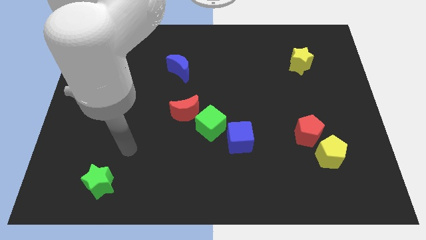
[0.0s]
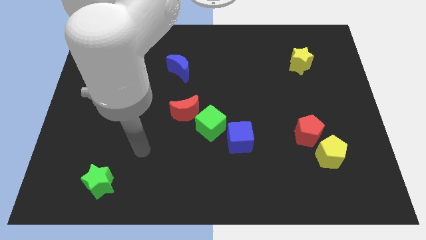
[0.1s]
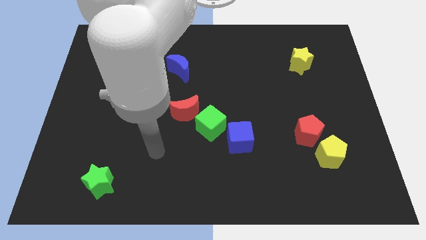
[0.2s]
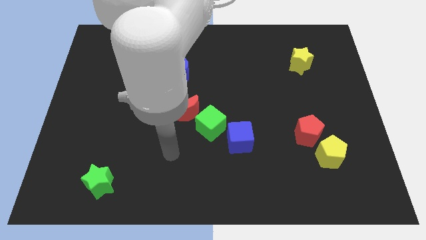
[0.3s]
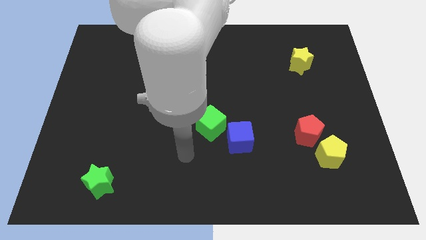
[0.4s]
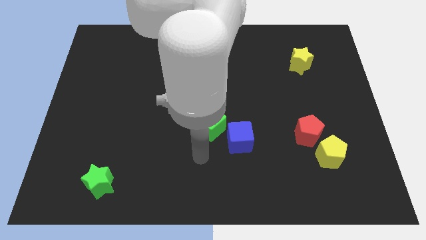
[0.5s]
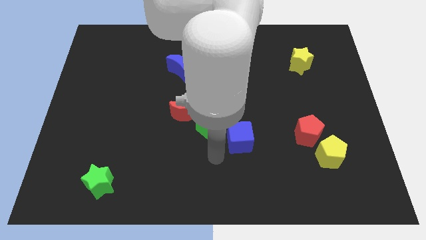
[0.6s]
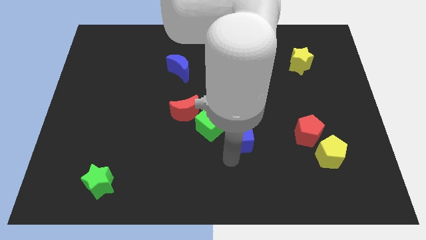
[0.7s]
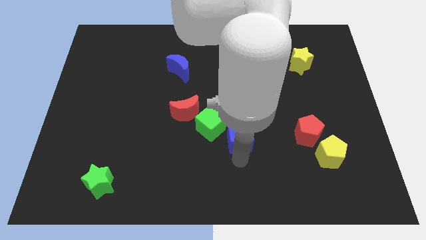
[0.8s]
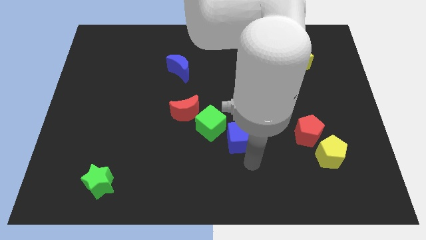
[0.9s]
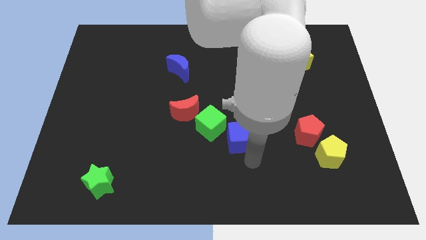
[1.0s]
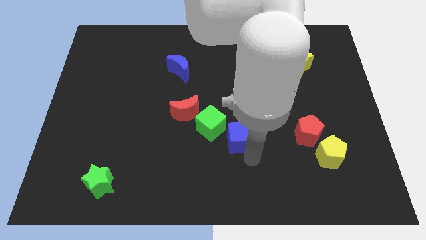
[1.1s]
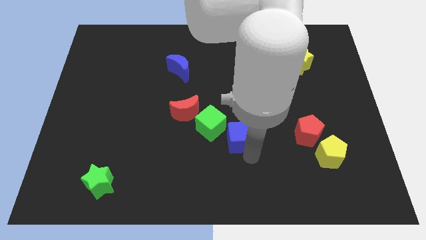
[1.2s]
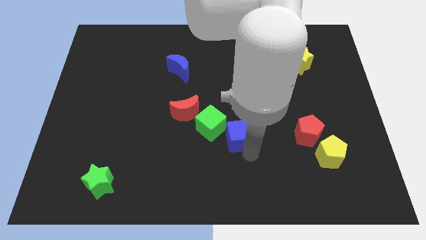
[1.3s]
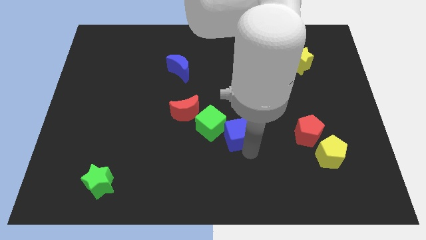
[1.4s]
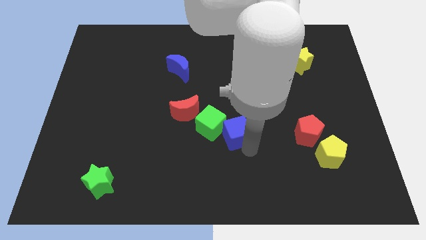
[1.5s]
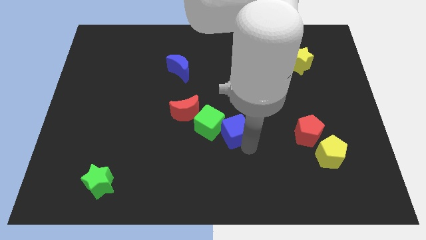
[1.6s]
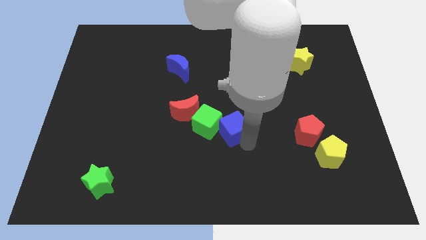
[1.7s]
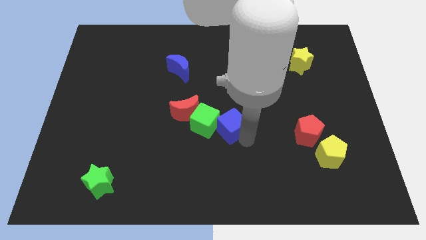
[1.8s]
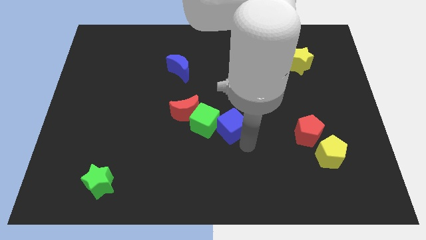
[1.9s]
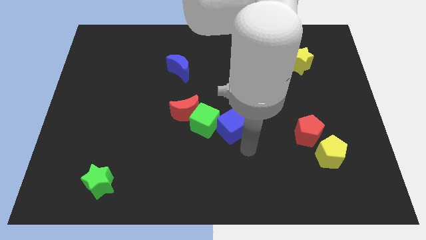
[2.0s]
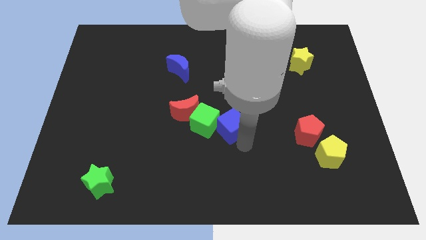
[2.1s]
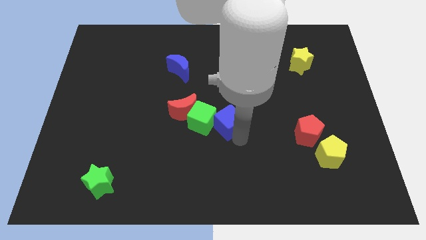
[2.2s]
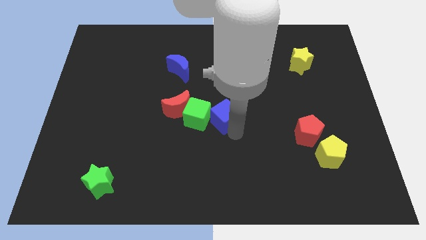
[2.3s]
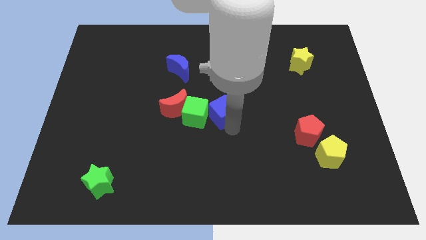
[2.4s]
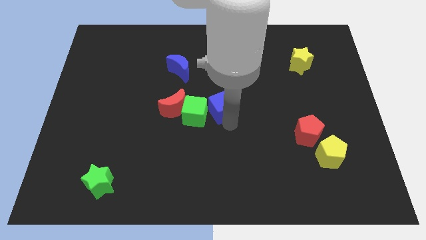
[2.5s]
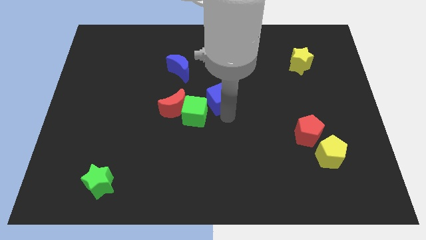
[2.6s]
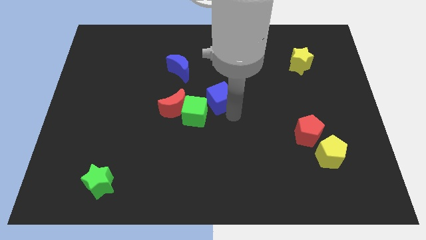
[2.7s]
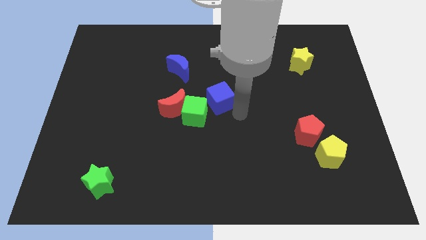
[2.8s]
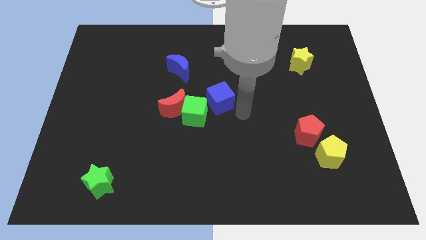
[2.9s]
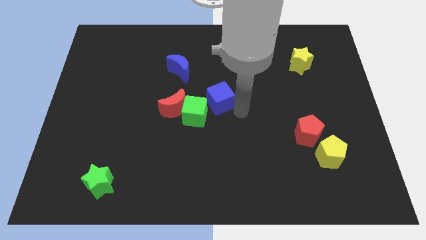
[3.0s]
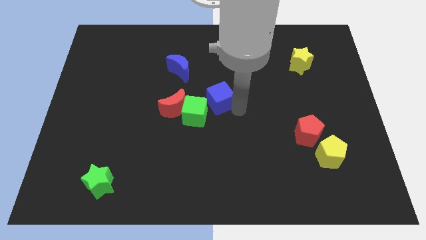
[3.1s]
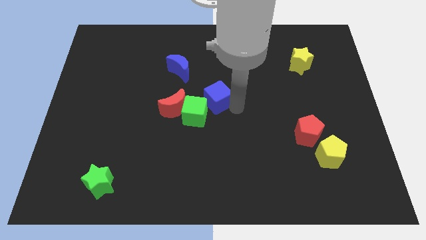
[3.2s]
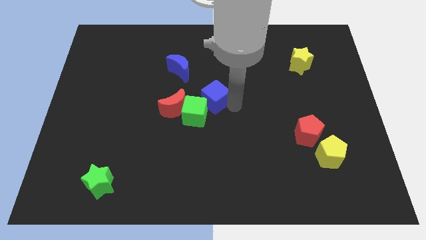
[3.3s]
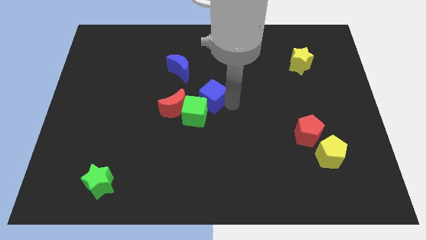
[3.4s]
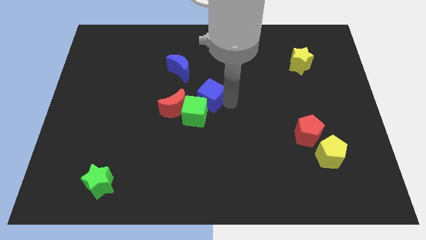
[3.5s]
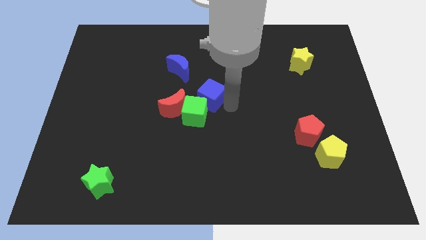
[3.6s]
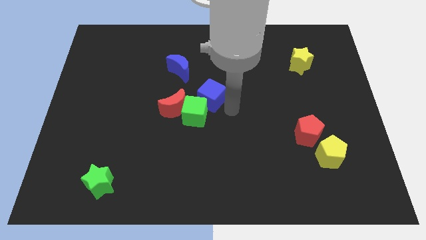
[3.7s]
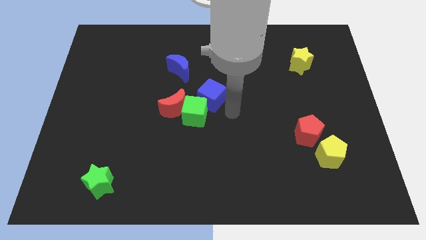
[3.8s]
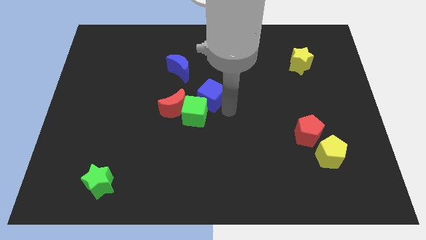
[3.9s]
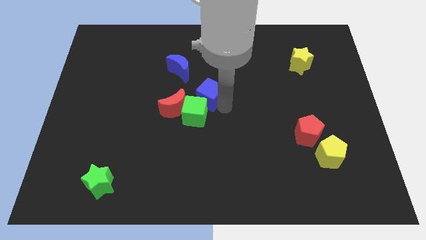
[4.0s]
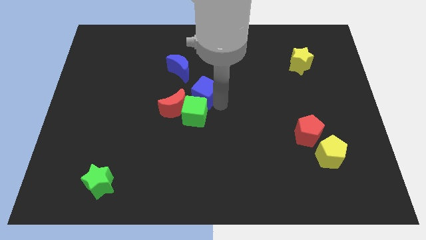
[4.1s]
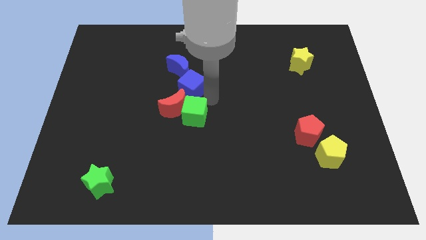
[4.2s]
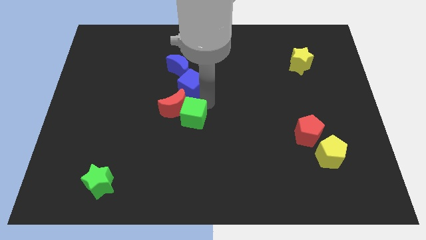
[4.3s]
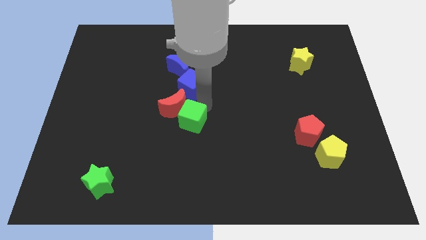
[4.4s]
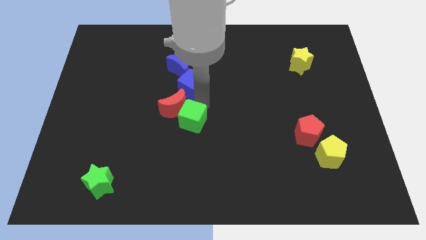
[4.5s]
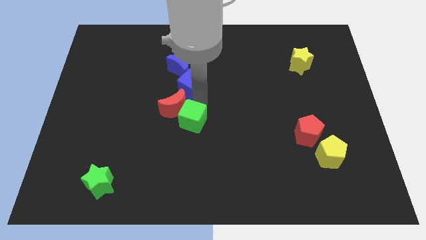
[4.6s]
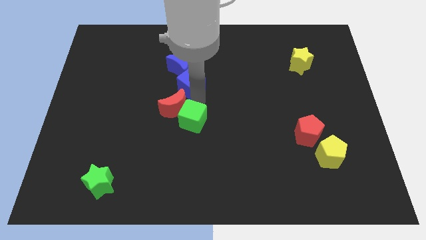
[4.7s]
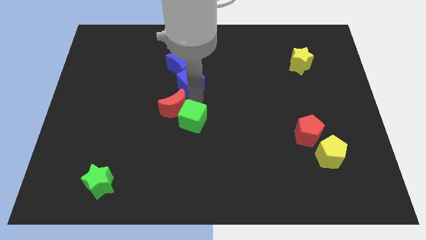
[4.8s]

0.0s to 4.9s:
move the blue cube next to the blue moon

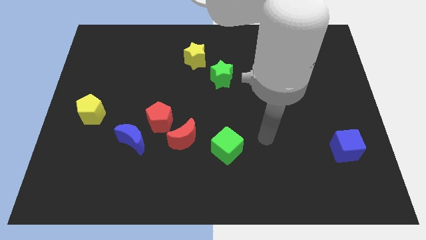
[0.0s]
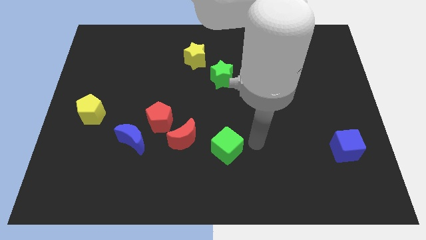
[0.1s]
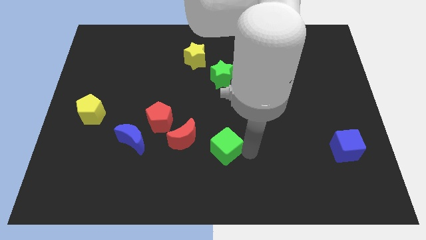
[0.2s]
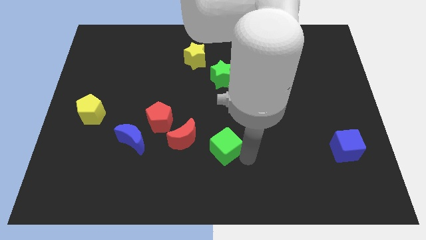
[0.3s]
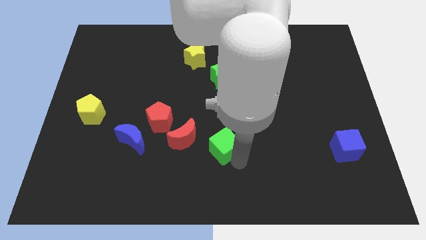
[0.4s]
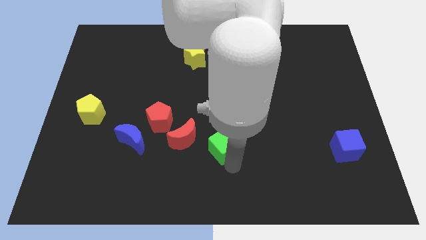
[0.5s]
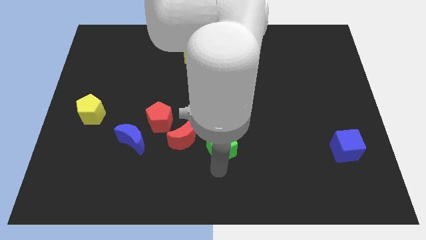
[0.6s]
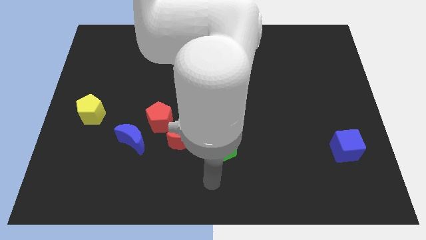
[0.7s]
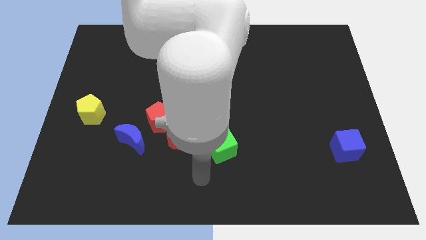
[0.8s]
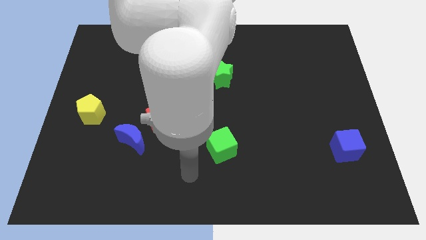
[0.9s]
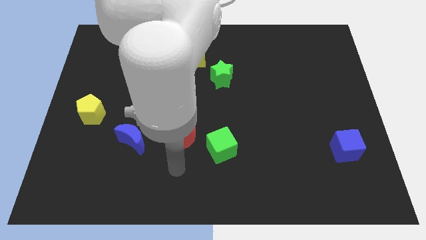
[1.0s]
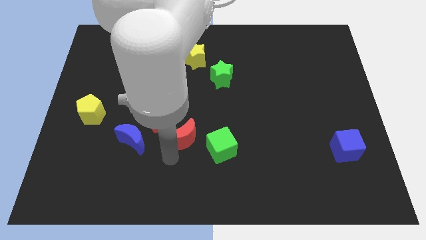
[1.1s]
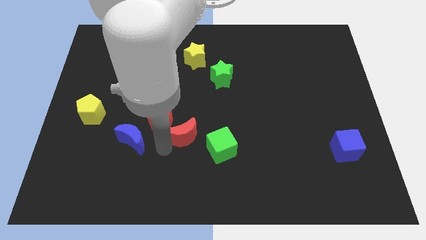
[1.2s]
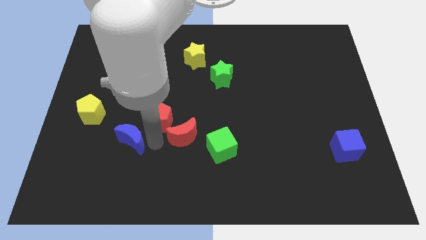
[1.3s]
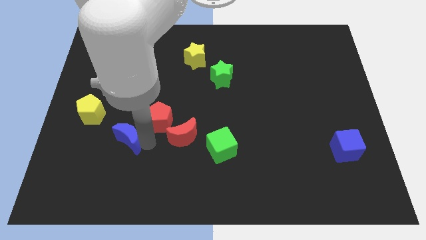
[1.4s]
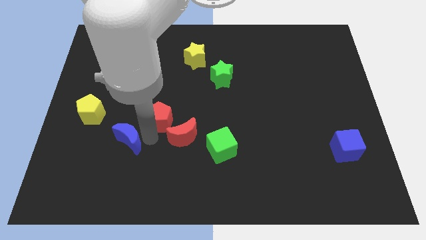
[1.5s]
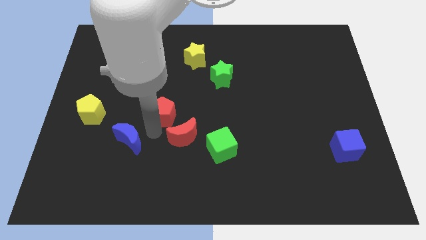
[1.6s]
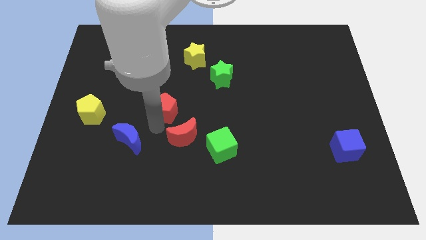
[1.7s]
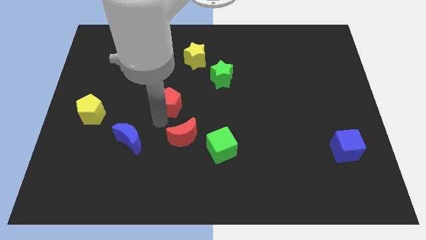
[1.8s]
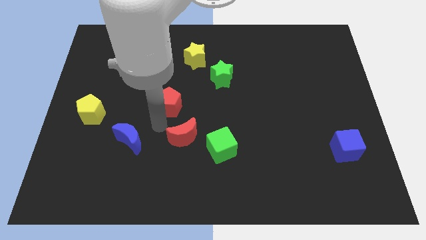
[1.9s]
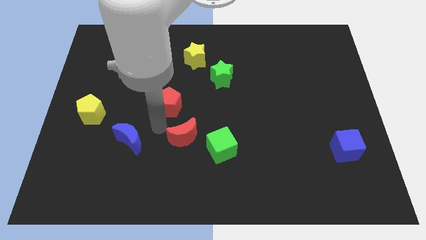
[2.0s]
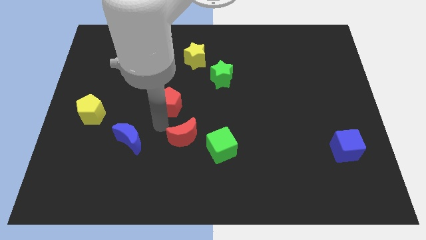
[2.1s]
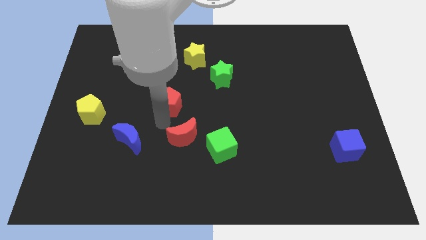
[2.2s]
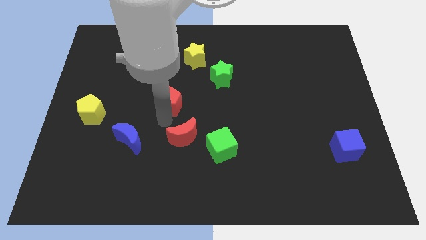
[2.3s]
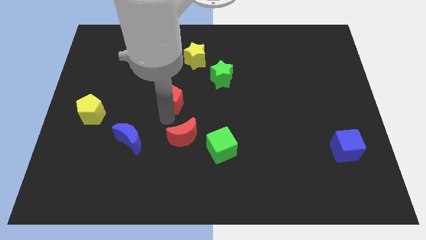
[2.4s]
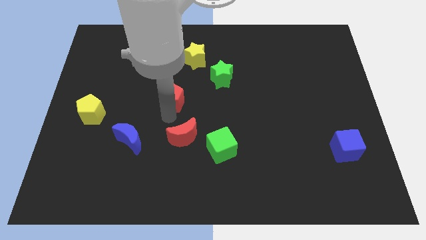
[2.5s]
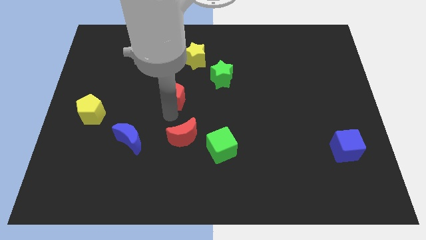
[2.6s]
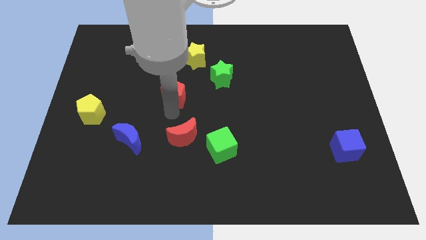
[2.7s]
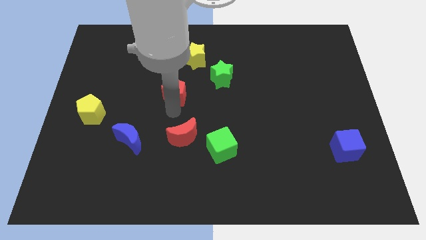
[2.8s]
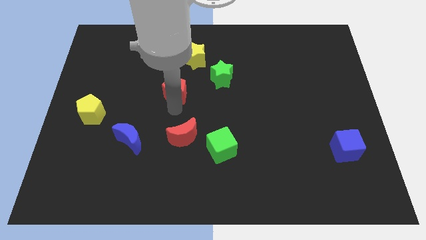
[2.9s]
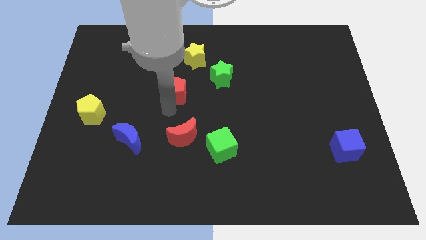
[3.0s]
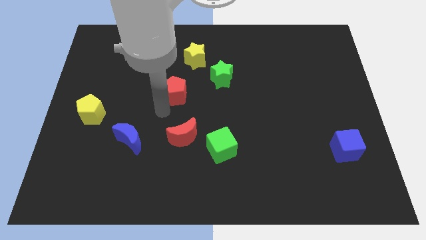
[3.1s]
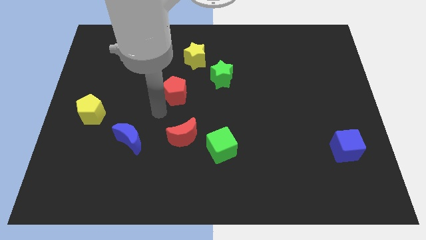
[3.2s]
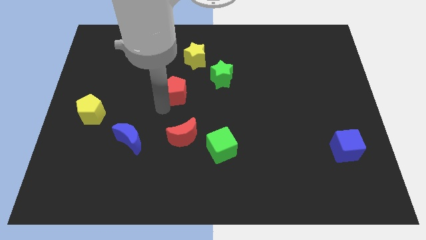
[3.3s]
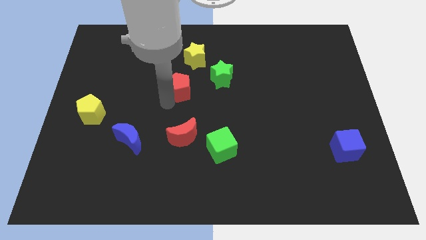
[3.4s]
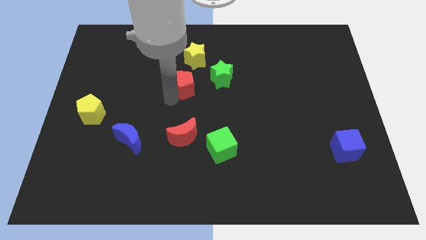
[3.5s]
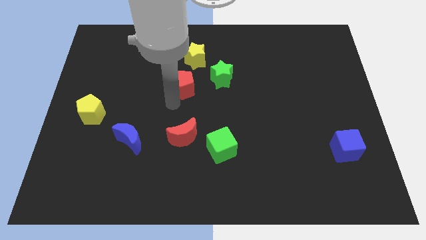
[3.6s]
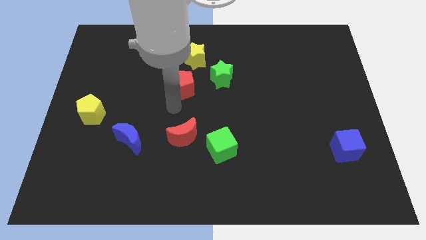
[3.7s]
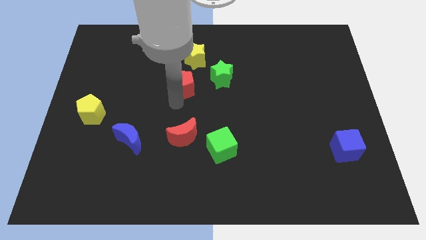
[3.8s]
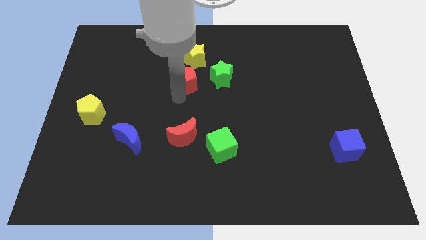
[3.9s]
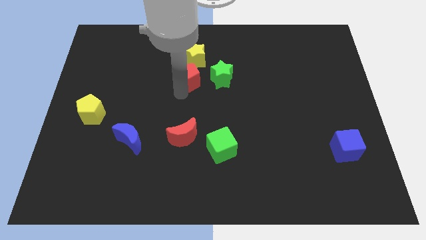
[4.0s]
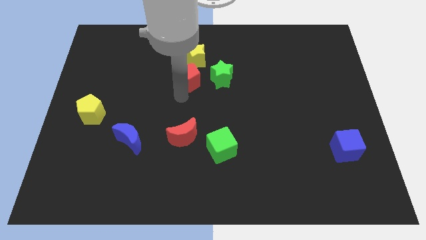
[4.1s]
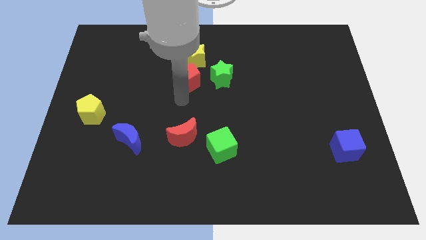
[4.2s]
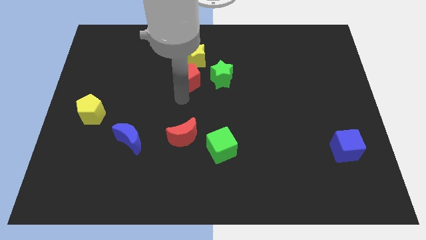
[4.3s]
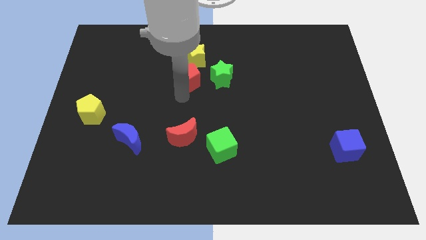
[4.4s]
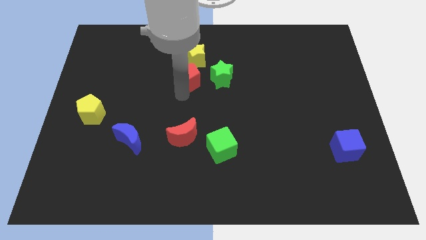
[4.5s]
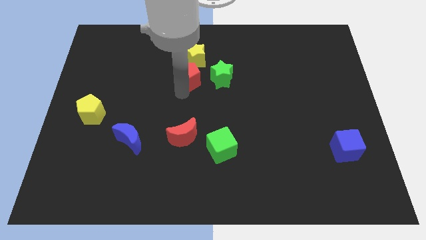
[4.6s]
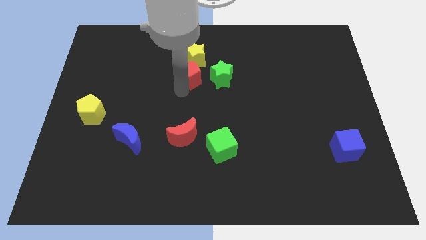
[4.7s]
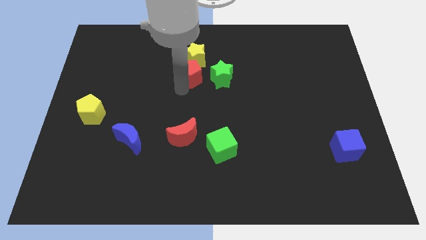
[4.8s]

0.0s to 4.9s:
slide the red pentagon next to the yellow star
